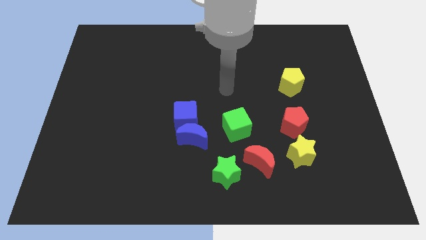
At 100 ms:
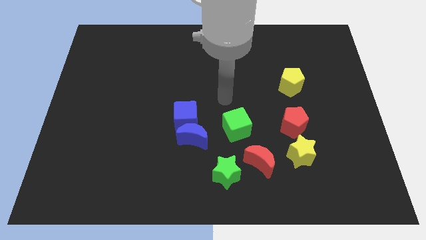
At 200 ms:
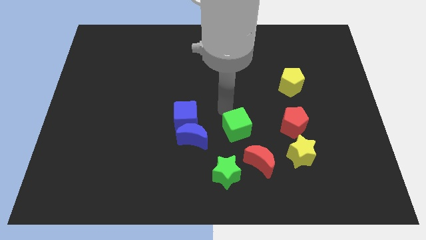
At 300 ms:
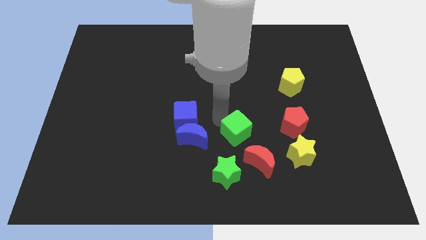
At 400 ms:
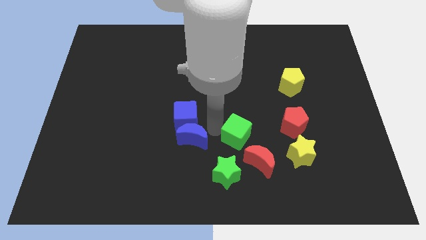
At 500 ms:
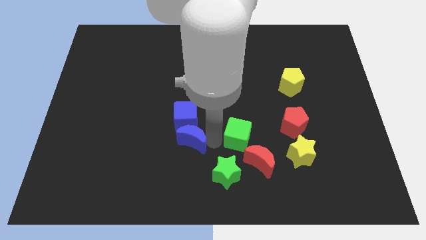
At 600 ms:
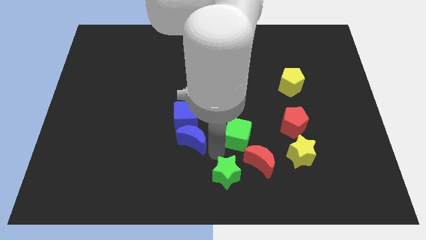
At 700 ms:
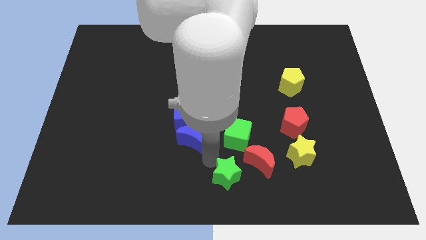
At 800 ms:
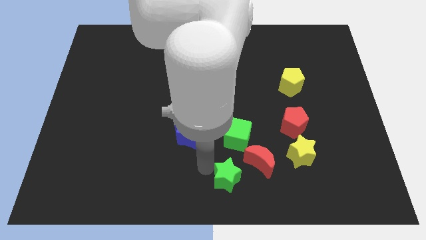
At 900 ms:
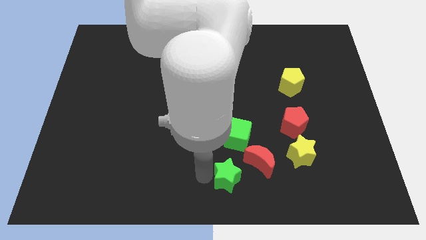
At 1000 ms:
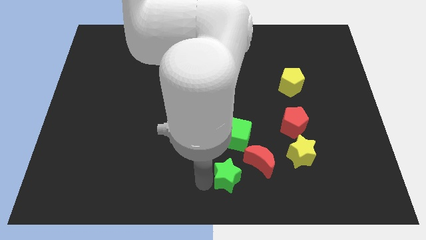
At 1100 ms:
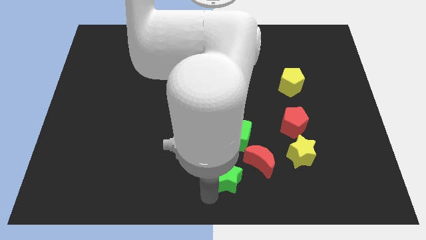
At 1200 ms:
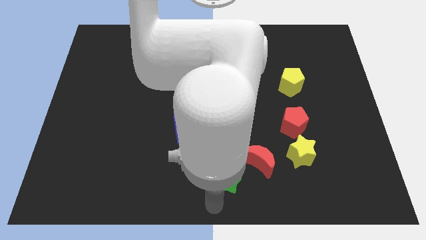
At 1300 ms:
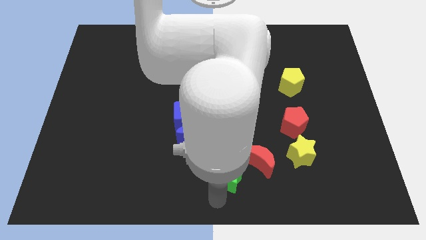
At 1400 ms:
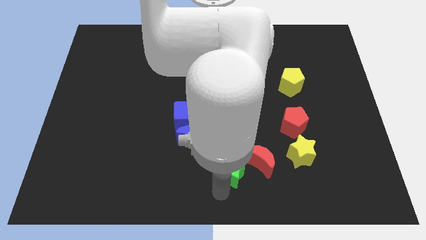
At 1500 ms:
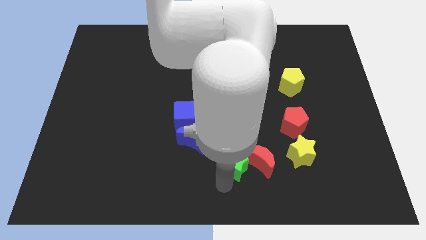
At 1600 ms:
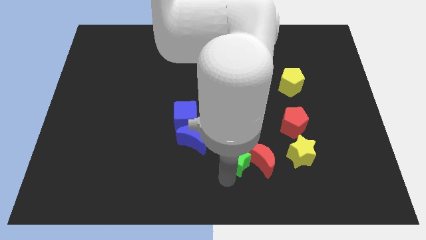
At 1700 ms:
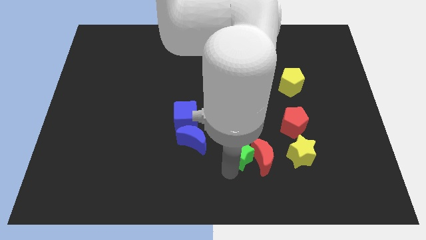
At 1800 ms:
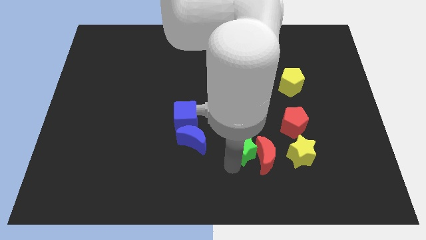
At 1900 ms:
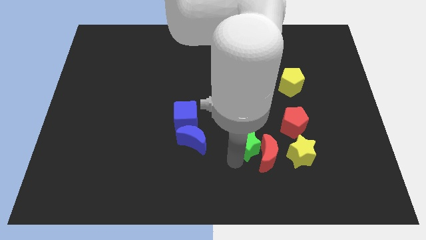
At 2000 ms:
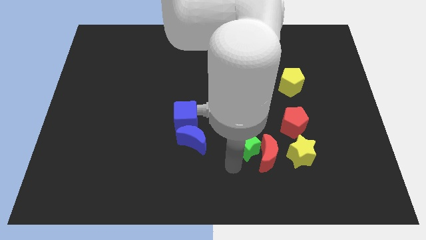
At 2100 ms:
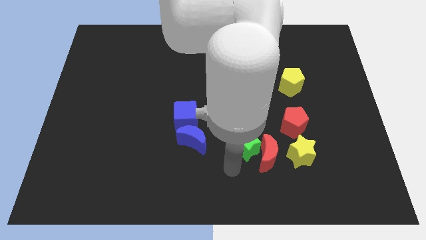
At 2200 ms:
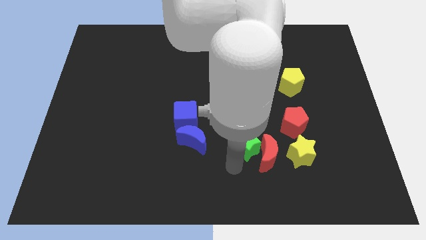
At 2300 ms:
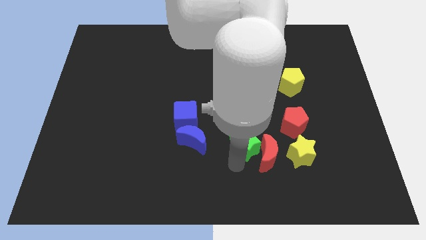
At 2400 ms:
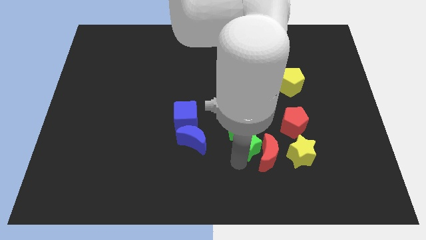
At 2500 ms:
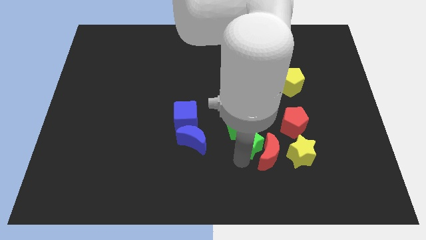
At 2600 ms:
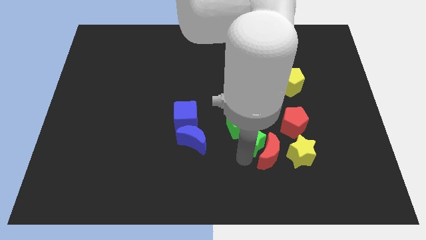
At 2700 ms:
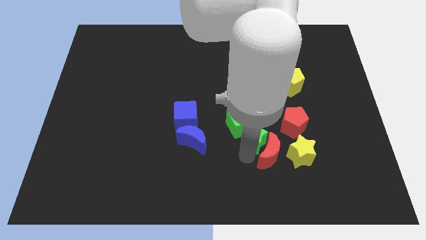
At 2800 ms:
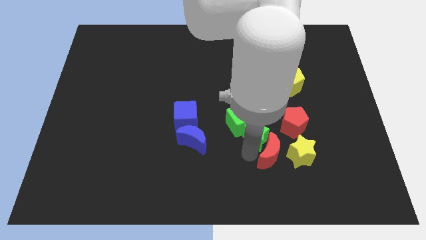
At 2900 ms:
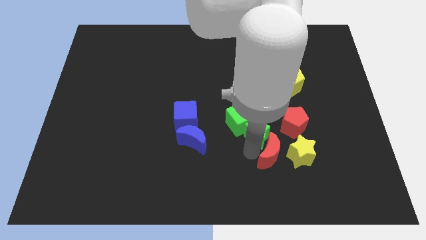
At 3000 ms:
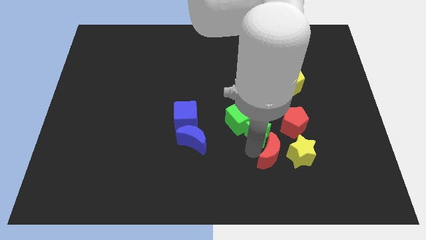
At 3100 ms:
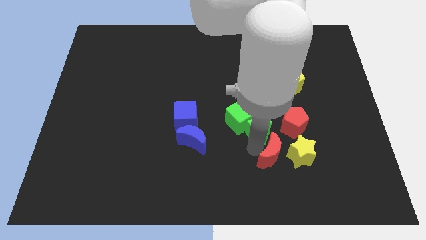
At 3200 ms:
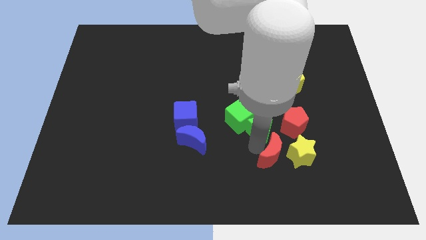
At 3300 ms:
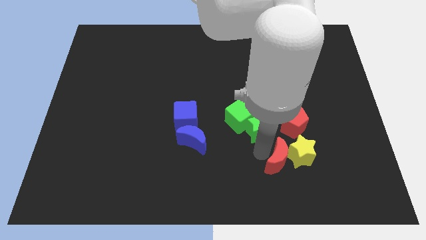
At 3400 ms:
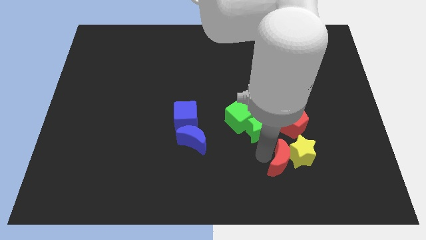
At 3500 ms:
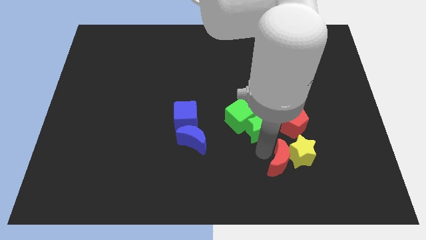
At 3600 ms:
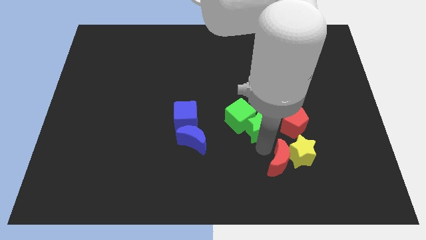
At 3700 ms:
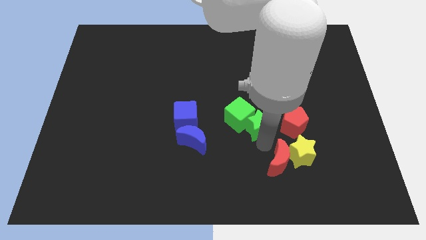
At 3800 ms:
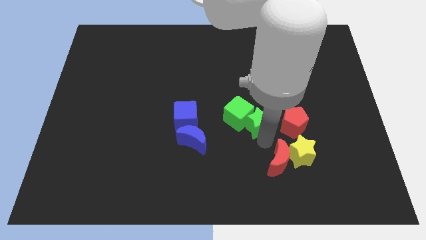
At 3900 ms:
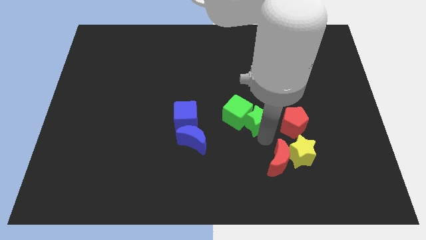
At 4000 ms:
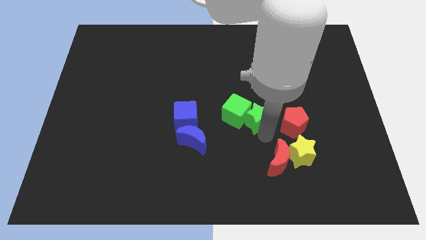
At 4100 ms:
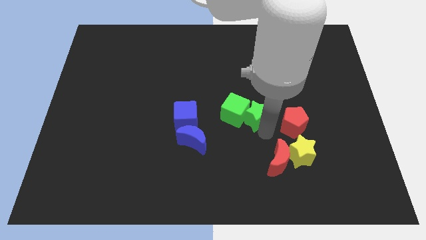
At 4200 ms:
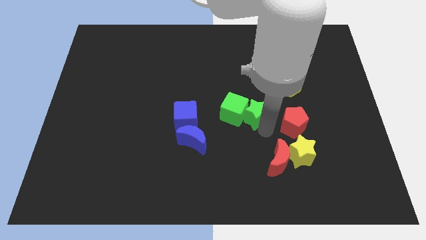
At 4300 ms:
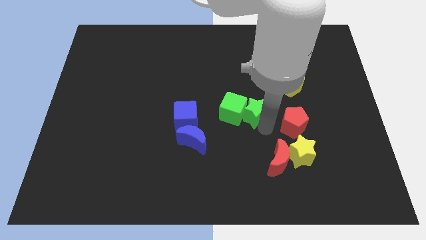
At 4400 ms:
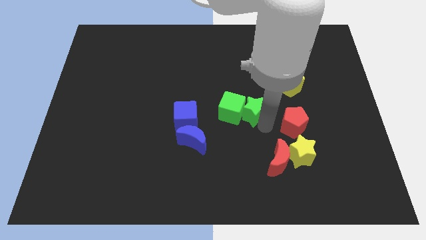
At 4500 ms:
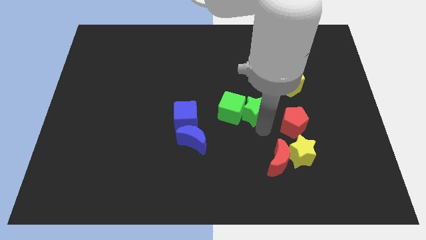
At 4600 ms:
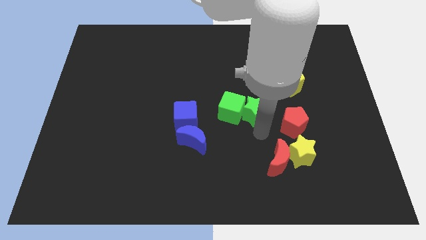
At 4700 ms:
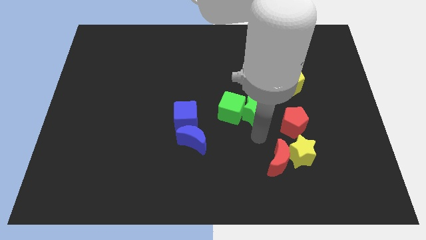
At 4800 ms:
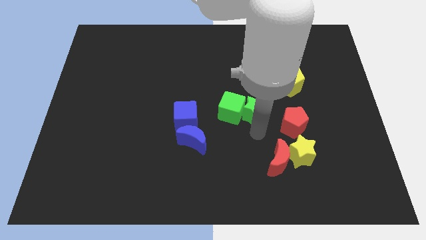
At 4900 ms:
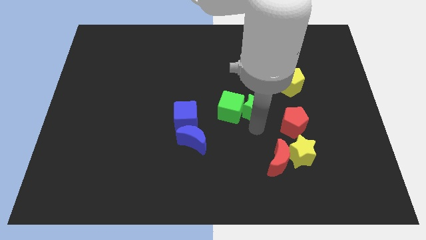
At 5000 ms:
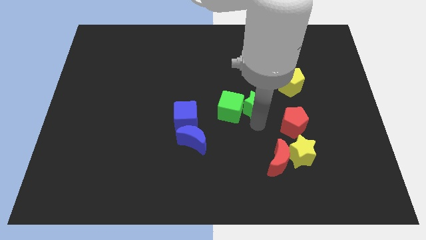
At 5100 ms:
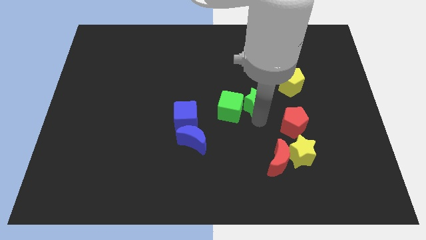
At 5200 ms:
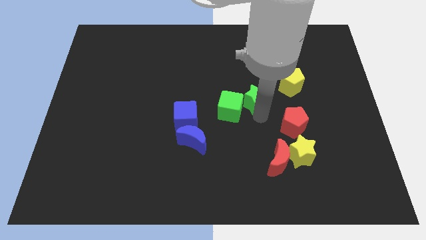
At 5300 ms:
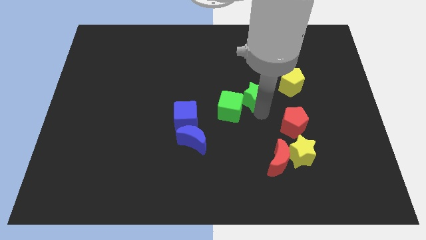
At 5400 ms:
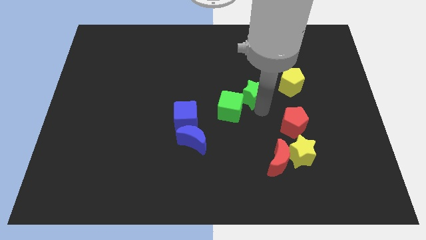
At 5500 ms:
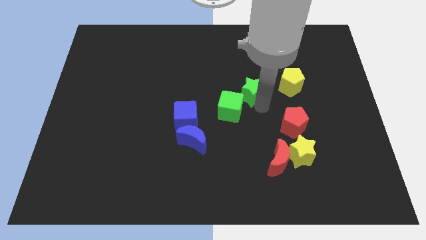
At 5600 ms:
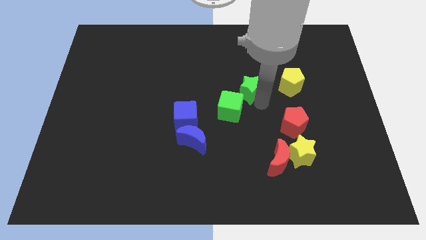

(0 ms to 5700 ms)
slide the green star to the top side of the green cube
